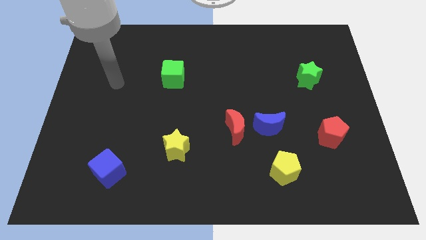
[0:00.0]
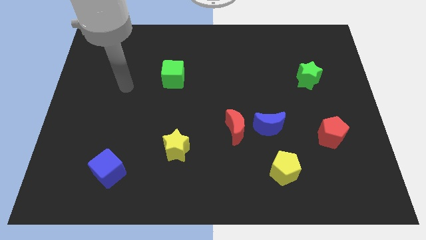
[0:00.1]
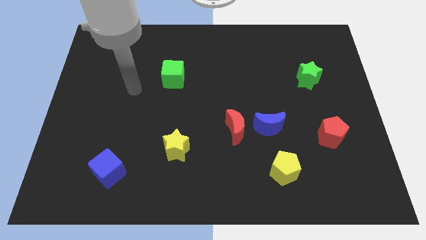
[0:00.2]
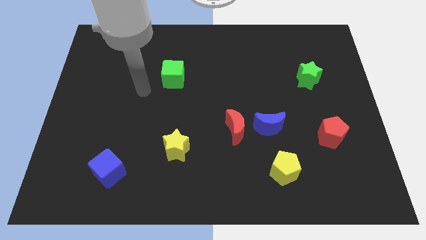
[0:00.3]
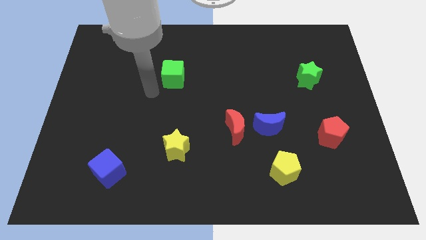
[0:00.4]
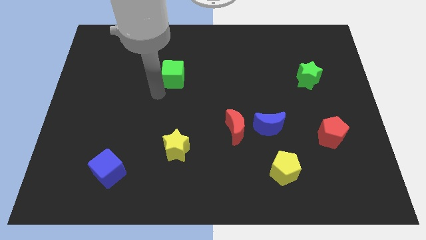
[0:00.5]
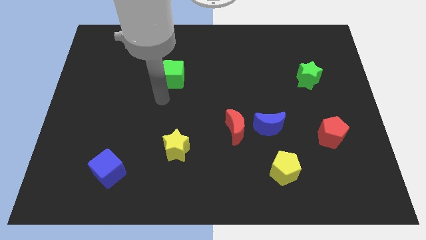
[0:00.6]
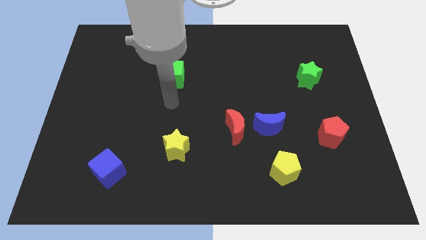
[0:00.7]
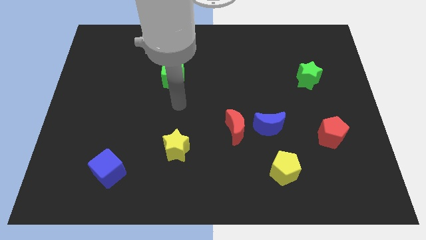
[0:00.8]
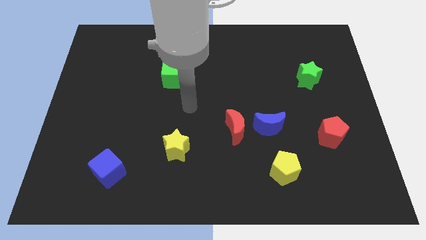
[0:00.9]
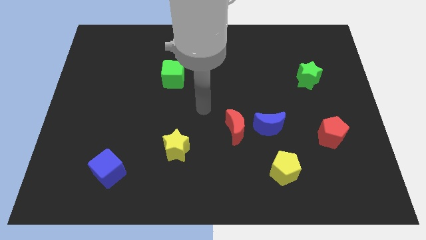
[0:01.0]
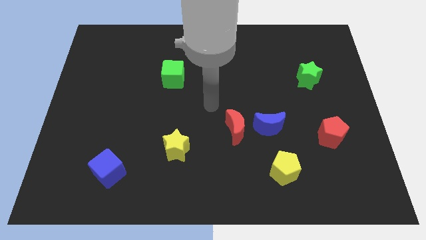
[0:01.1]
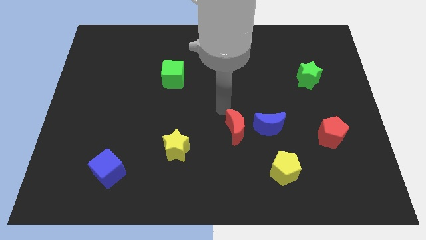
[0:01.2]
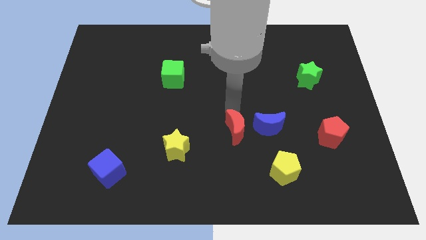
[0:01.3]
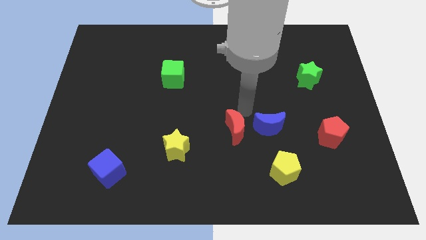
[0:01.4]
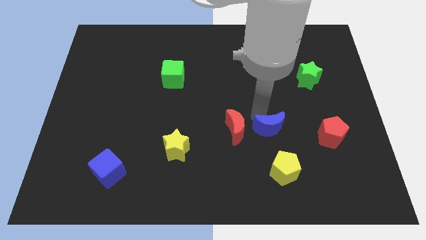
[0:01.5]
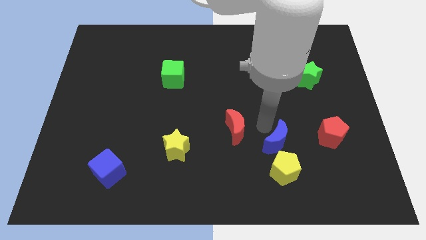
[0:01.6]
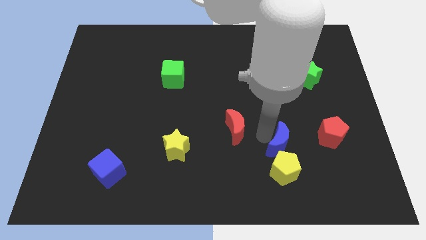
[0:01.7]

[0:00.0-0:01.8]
pull the red moon apart from the blue moon

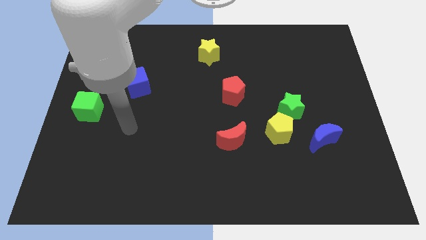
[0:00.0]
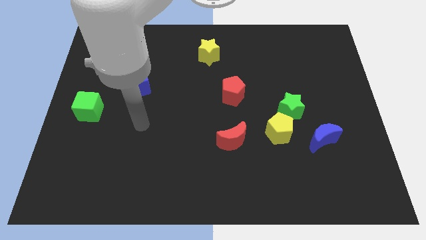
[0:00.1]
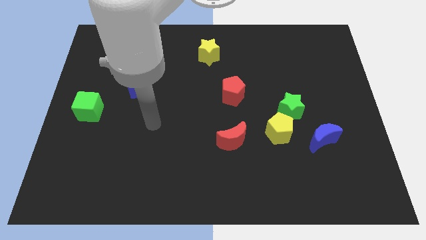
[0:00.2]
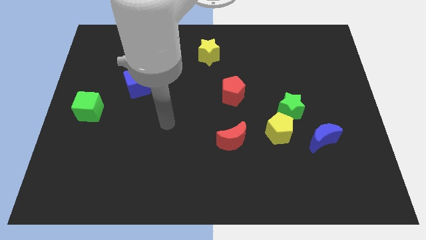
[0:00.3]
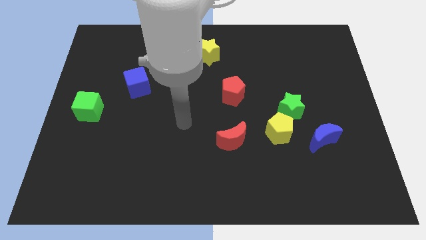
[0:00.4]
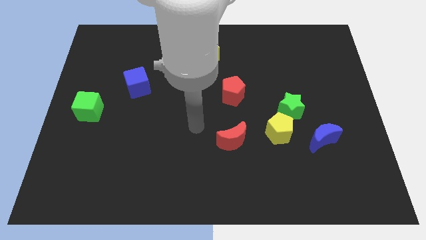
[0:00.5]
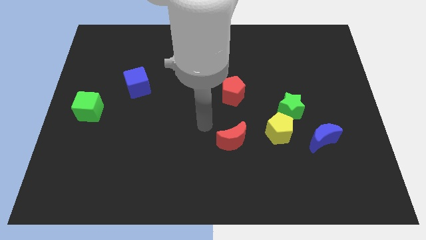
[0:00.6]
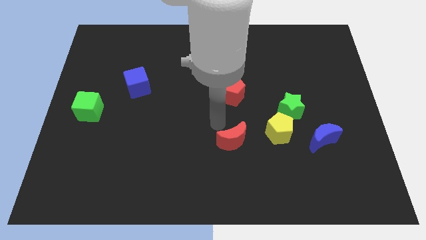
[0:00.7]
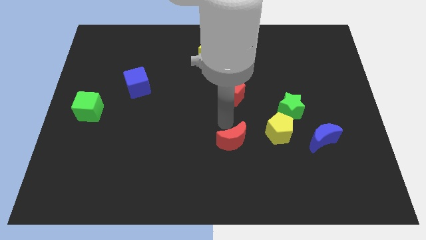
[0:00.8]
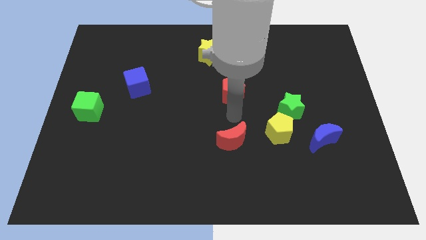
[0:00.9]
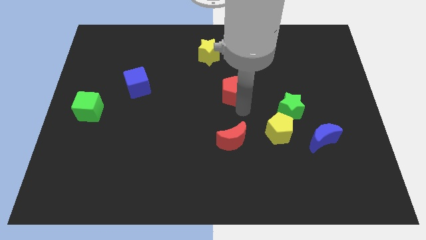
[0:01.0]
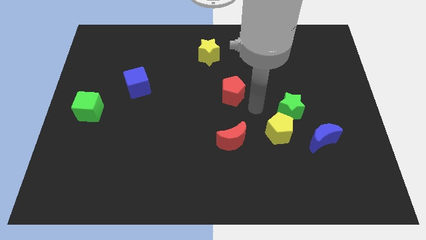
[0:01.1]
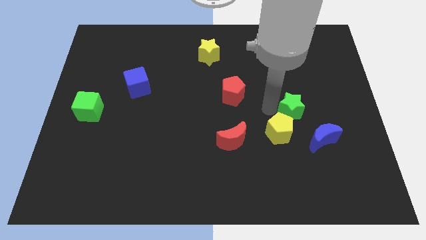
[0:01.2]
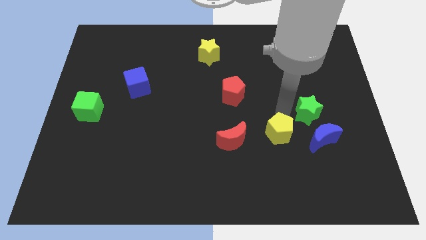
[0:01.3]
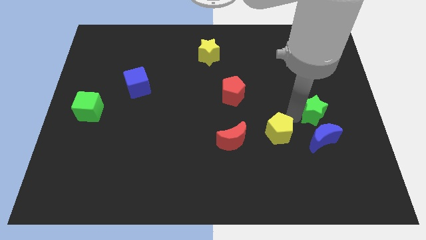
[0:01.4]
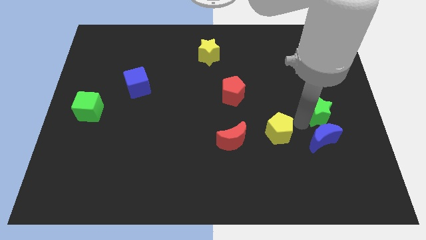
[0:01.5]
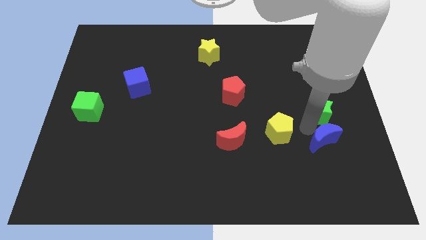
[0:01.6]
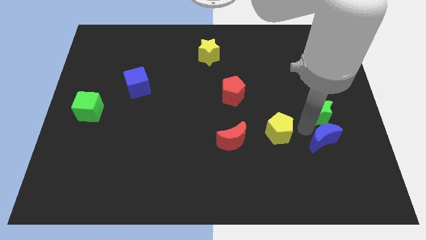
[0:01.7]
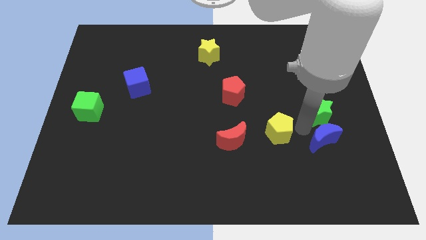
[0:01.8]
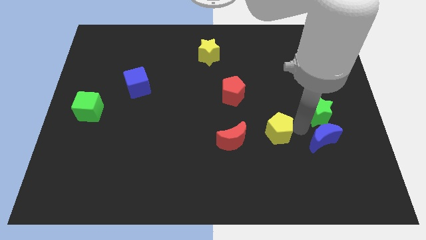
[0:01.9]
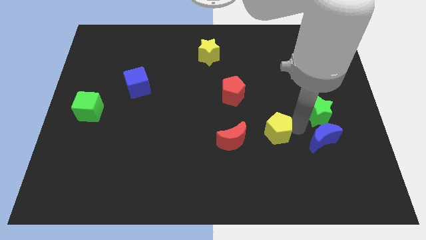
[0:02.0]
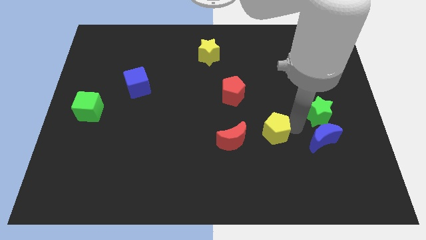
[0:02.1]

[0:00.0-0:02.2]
pull the yellow pentagon apart from the green star and blue moon

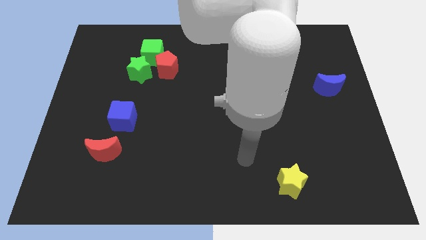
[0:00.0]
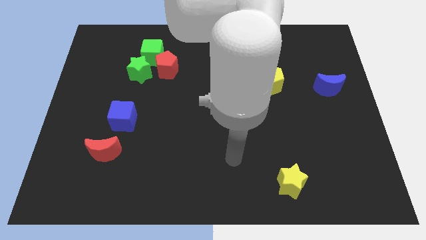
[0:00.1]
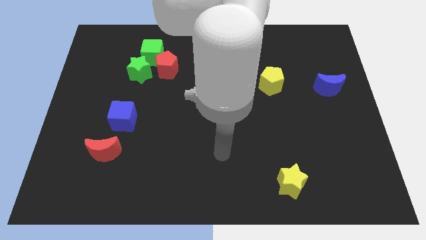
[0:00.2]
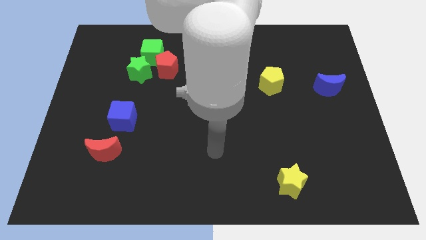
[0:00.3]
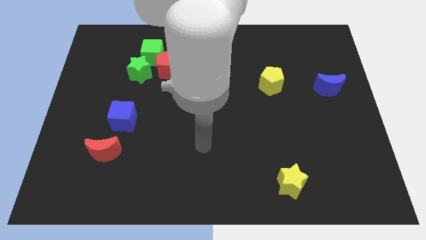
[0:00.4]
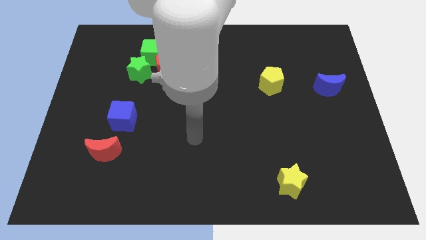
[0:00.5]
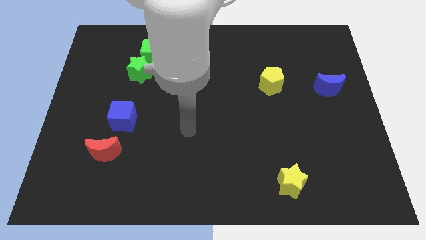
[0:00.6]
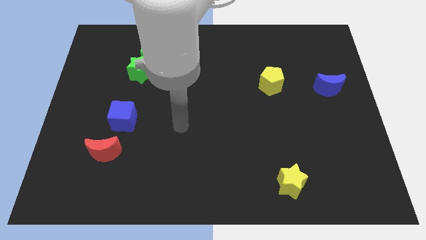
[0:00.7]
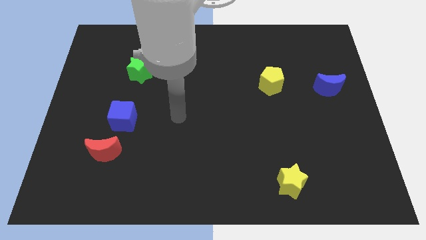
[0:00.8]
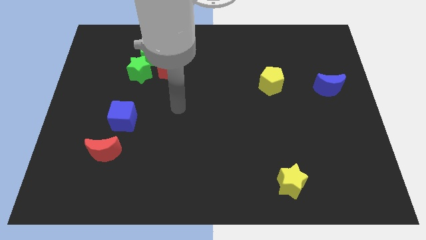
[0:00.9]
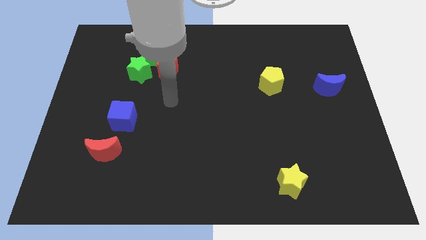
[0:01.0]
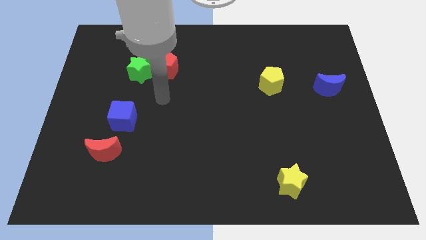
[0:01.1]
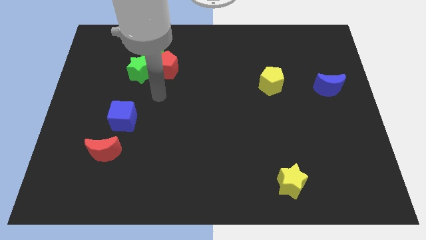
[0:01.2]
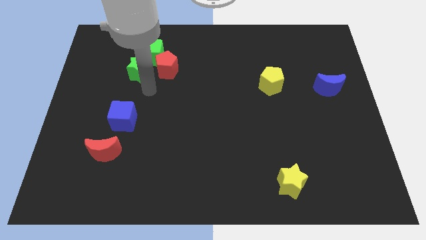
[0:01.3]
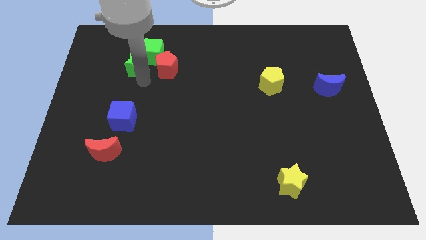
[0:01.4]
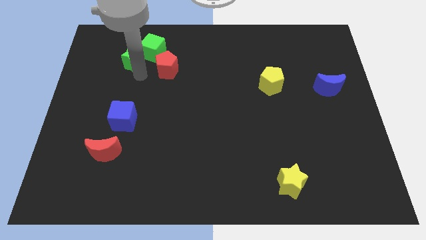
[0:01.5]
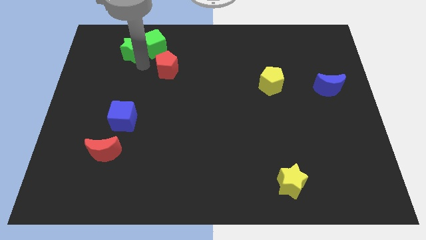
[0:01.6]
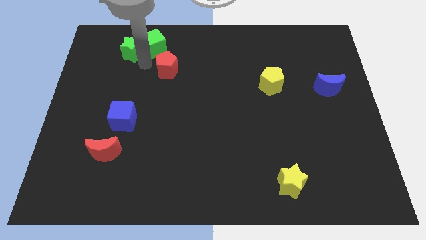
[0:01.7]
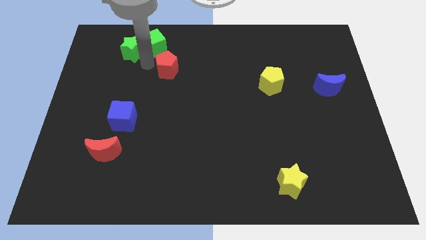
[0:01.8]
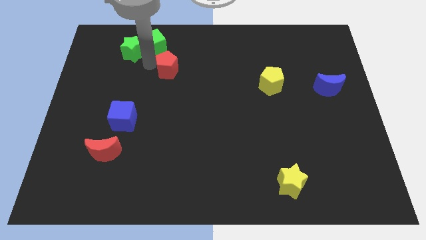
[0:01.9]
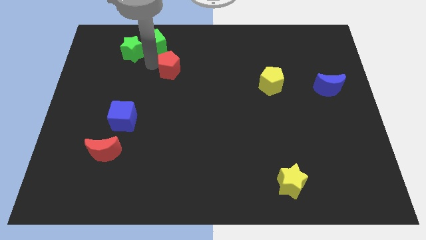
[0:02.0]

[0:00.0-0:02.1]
move the red pentagon away from the green cube and green star

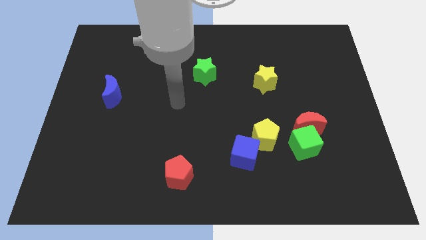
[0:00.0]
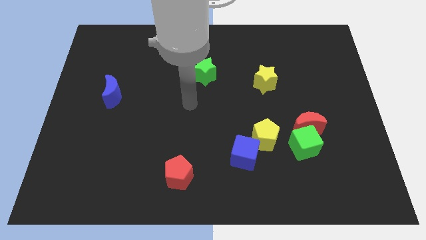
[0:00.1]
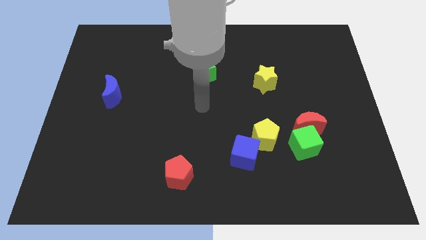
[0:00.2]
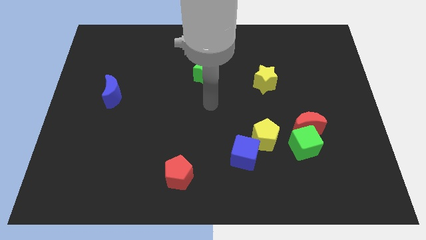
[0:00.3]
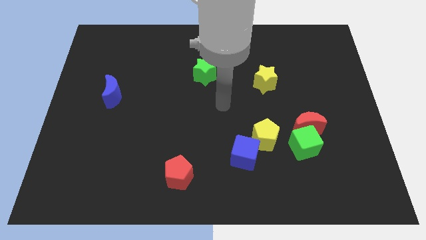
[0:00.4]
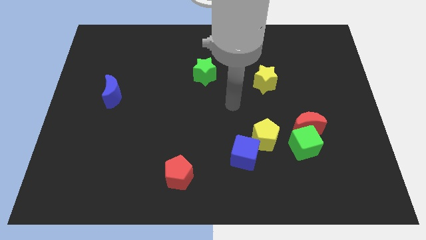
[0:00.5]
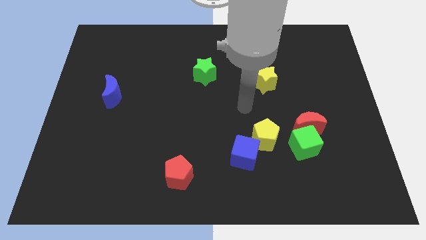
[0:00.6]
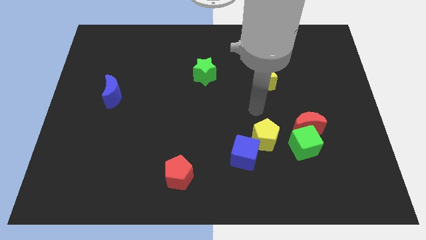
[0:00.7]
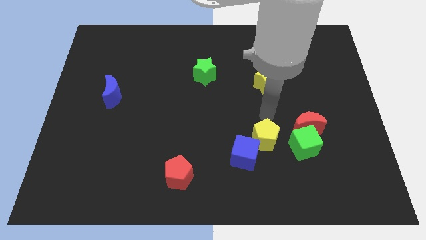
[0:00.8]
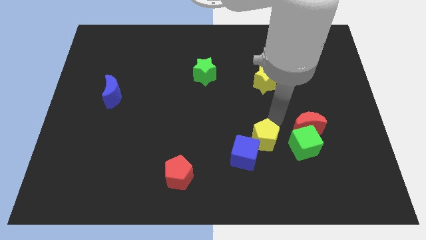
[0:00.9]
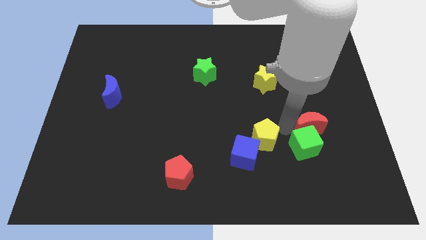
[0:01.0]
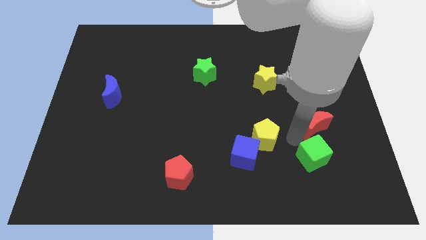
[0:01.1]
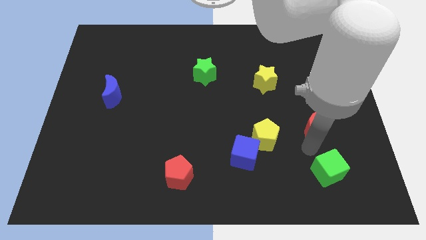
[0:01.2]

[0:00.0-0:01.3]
pull the red moon apart from the green cube

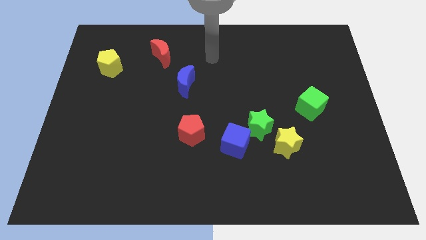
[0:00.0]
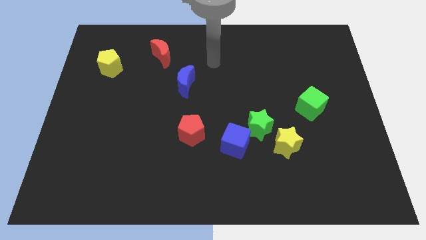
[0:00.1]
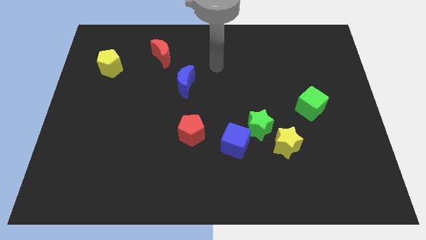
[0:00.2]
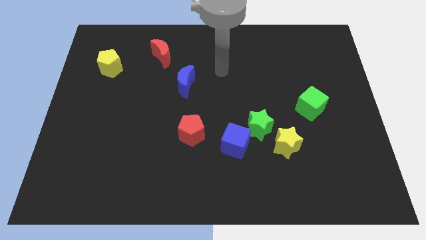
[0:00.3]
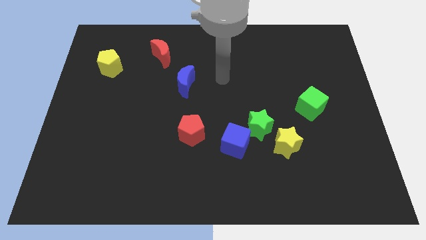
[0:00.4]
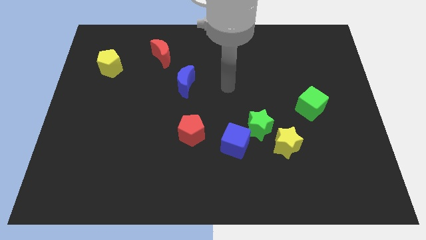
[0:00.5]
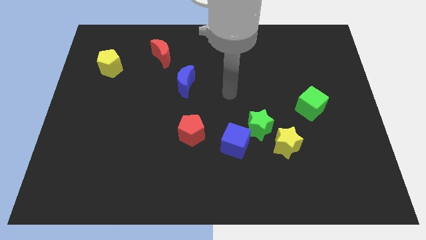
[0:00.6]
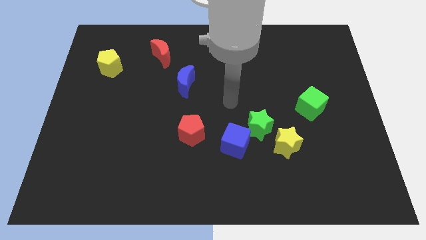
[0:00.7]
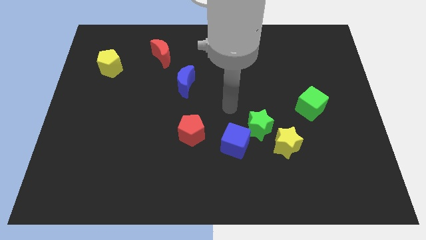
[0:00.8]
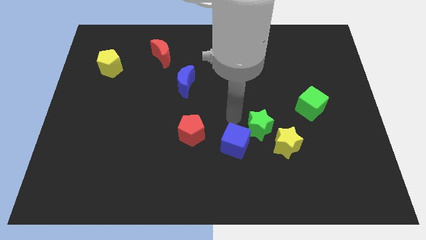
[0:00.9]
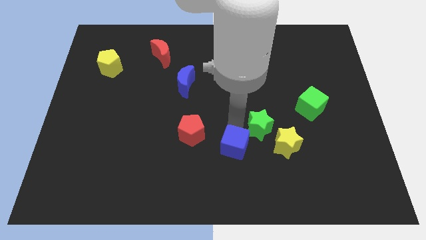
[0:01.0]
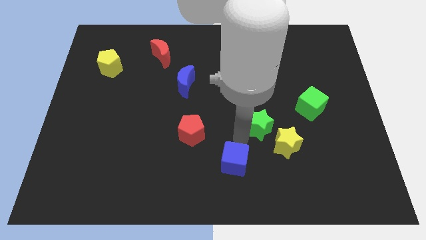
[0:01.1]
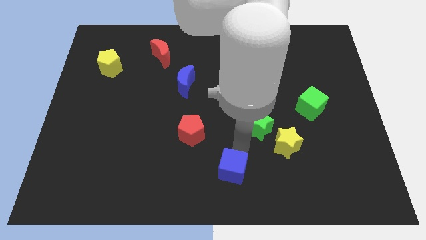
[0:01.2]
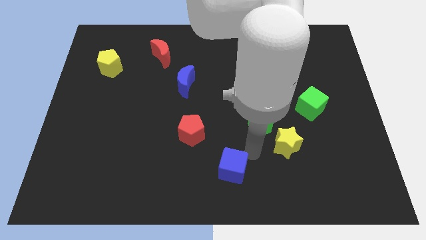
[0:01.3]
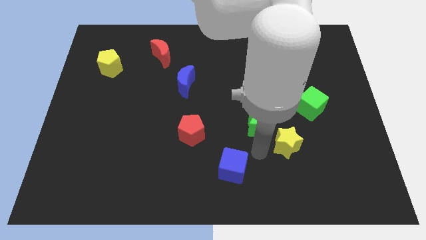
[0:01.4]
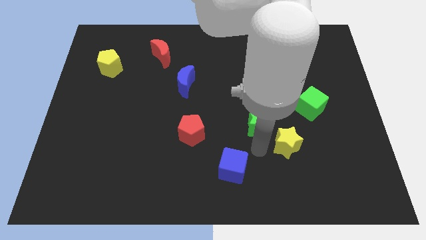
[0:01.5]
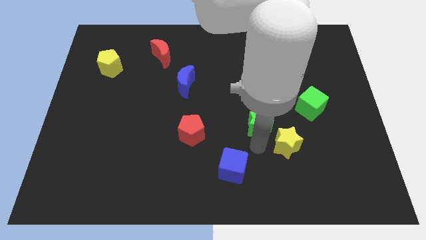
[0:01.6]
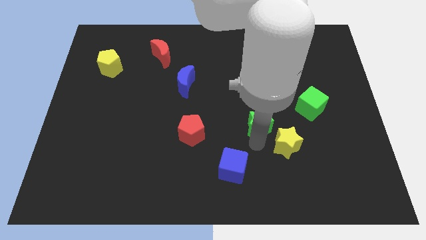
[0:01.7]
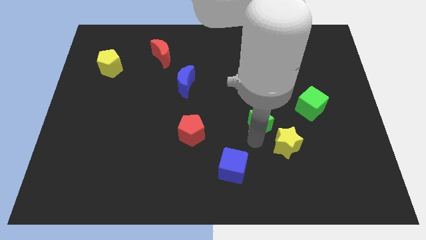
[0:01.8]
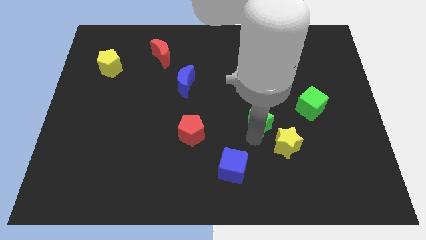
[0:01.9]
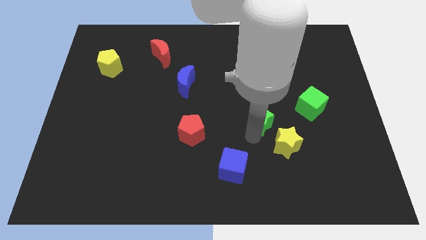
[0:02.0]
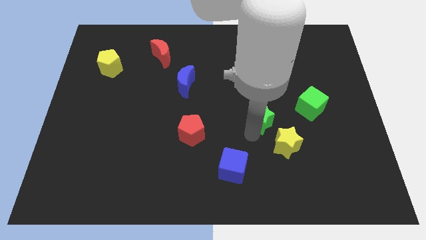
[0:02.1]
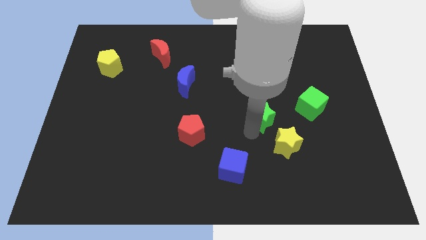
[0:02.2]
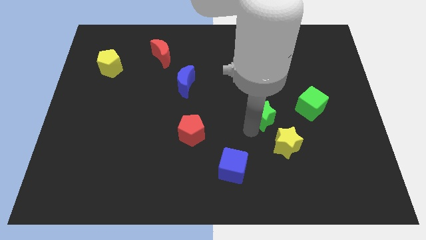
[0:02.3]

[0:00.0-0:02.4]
separate the green star from the blue cube and yellow star
